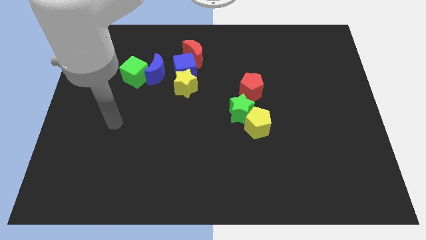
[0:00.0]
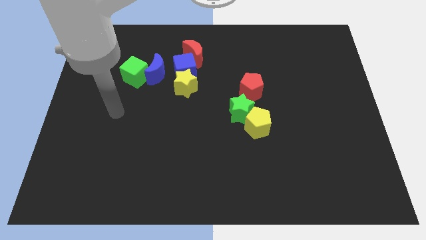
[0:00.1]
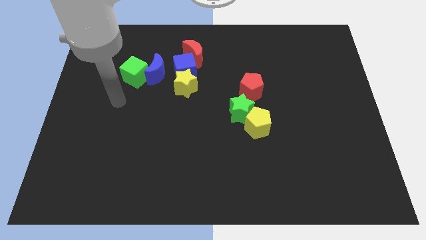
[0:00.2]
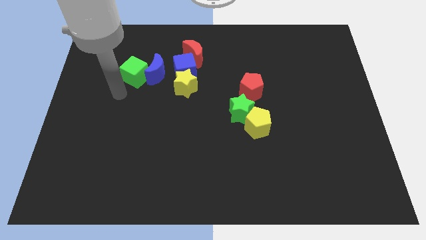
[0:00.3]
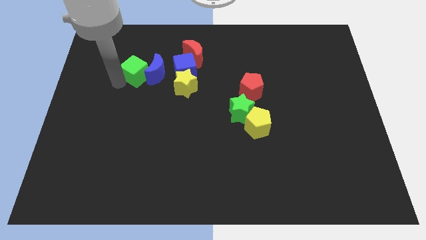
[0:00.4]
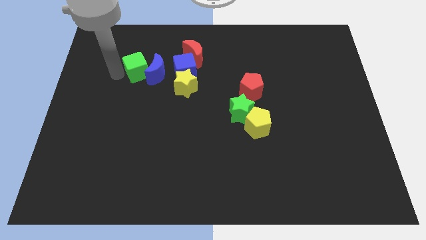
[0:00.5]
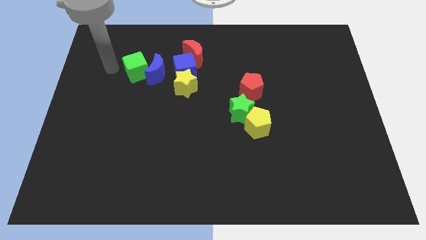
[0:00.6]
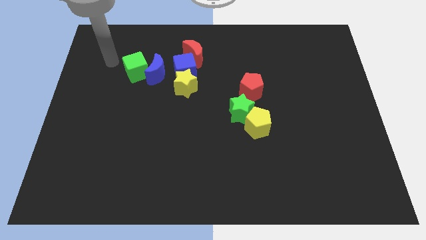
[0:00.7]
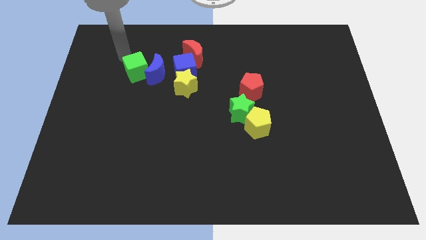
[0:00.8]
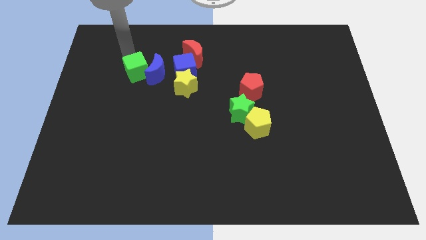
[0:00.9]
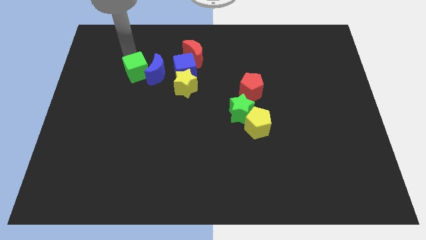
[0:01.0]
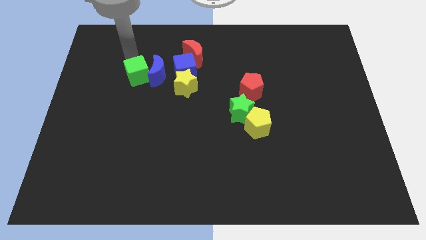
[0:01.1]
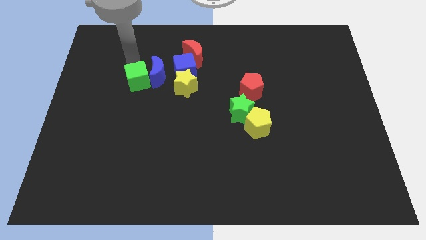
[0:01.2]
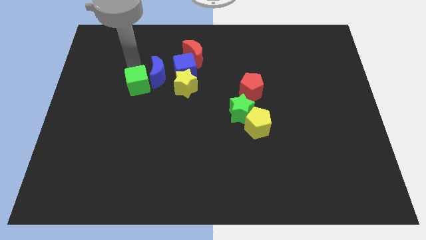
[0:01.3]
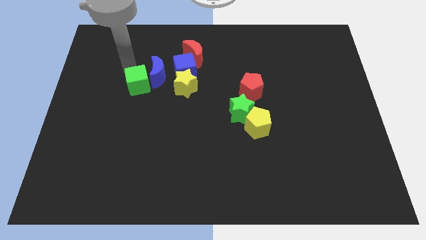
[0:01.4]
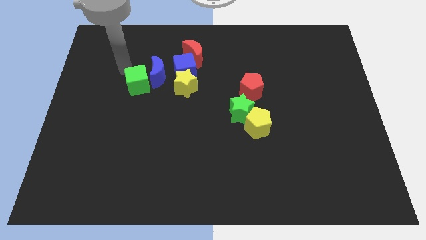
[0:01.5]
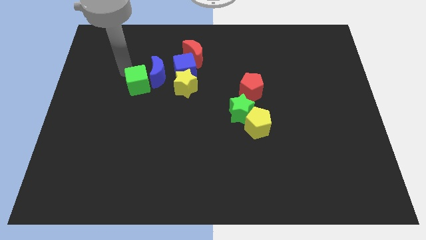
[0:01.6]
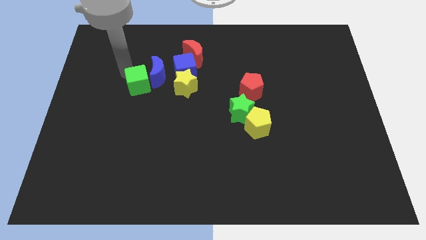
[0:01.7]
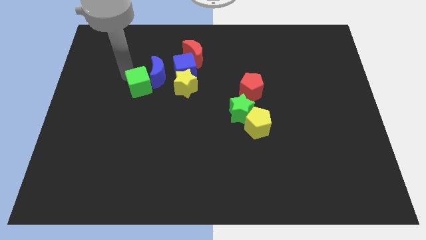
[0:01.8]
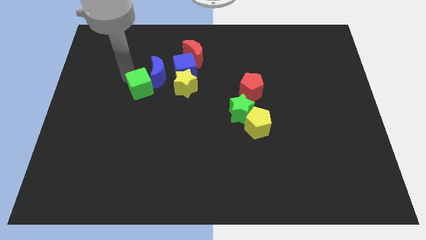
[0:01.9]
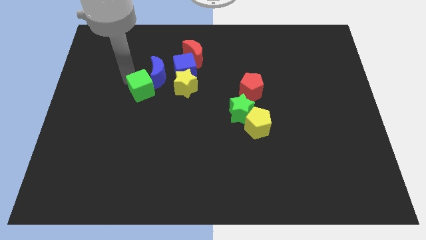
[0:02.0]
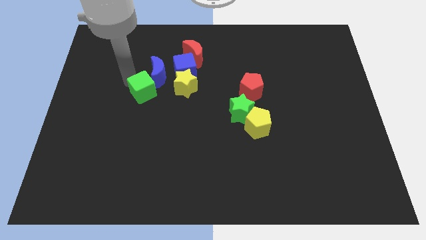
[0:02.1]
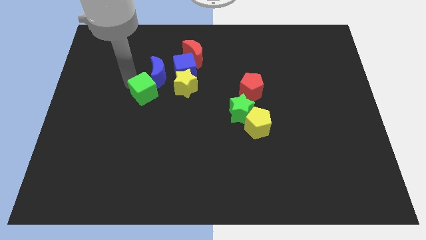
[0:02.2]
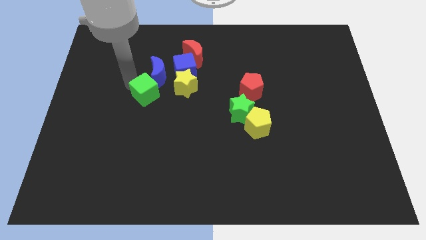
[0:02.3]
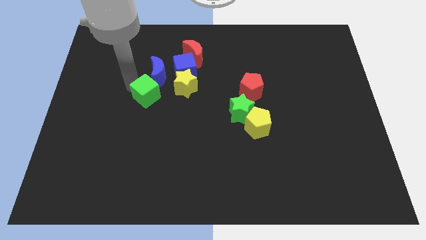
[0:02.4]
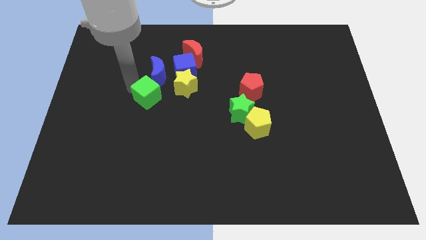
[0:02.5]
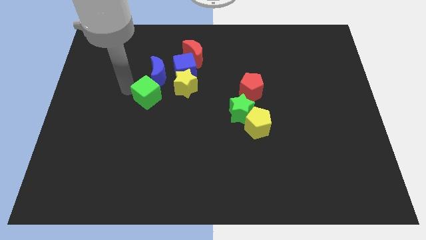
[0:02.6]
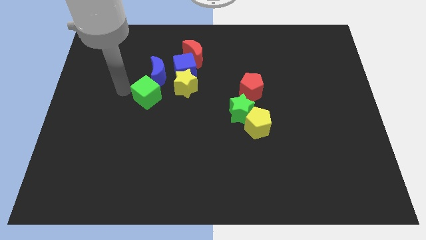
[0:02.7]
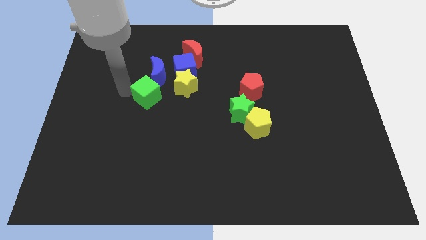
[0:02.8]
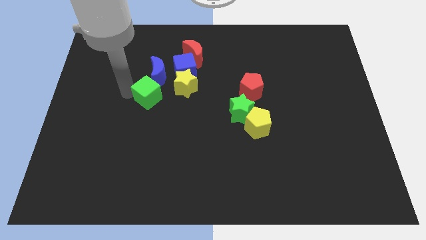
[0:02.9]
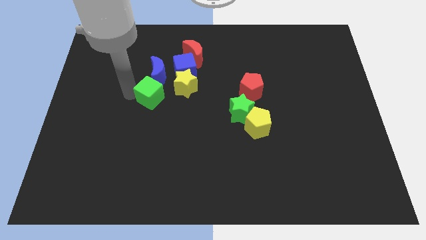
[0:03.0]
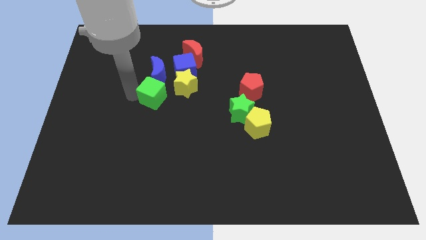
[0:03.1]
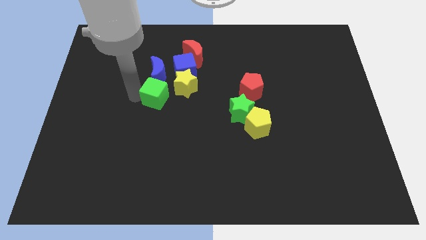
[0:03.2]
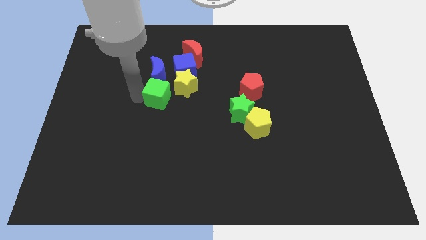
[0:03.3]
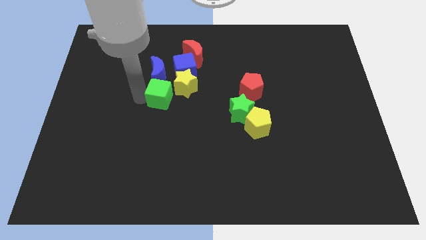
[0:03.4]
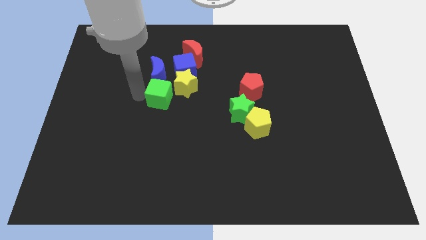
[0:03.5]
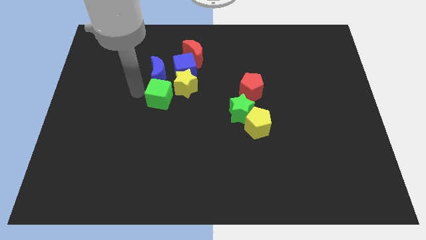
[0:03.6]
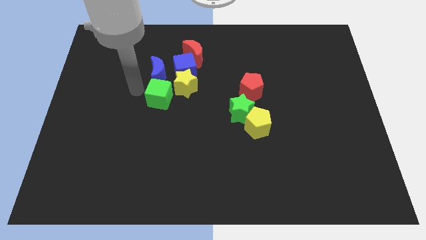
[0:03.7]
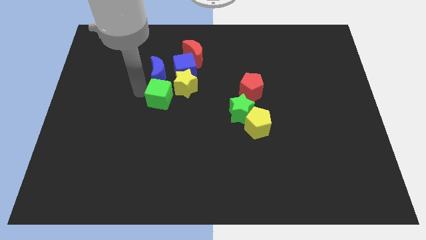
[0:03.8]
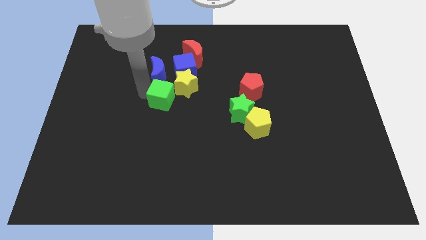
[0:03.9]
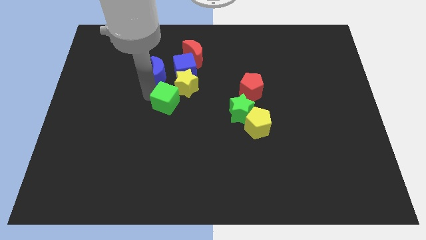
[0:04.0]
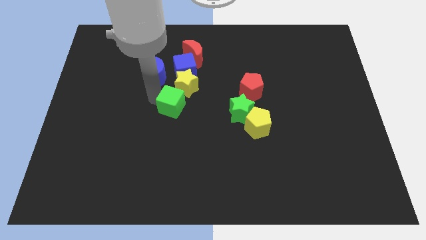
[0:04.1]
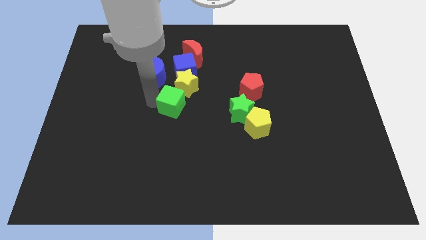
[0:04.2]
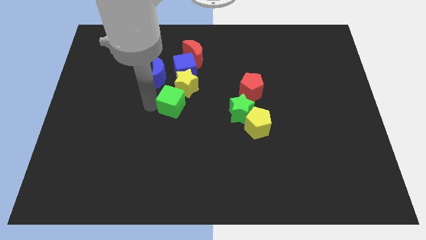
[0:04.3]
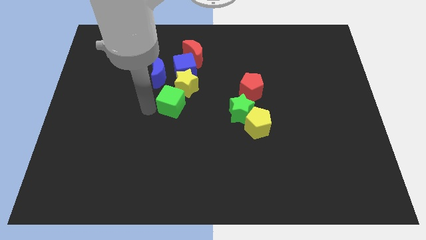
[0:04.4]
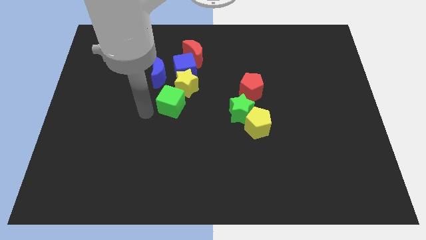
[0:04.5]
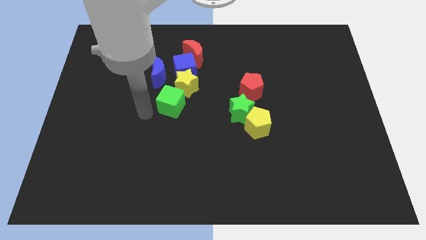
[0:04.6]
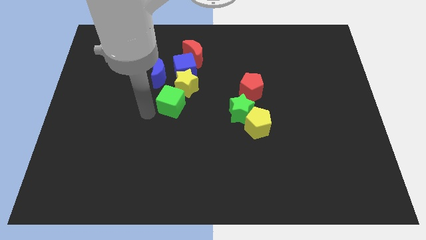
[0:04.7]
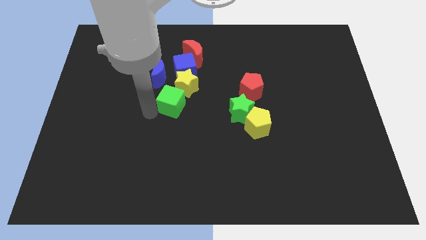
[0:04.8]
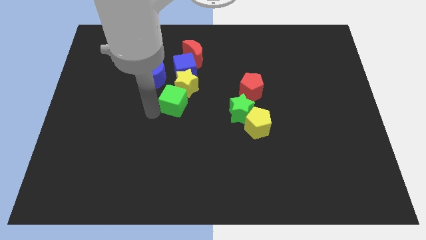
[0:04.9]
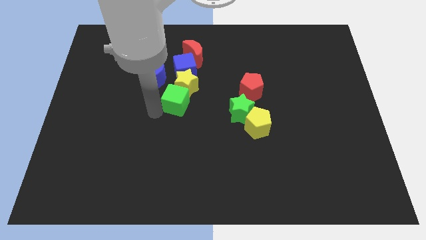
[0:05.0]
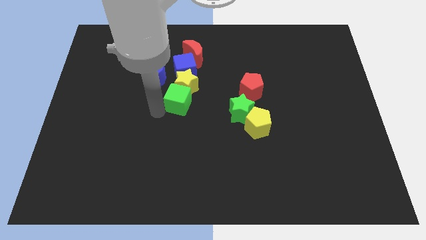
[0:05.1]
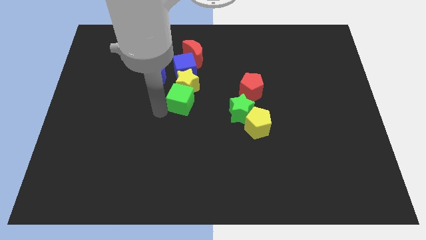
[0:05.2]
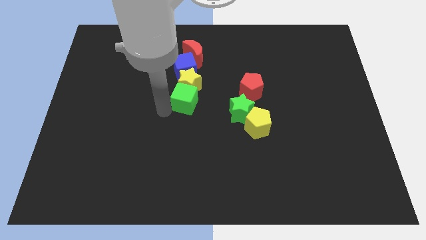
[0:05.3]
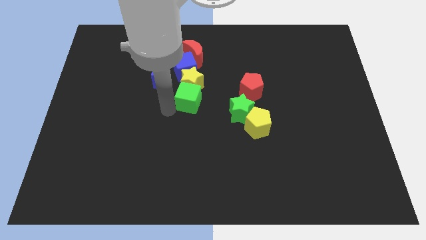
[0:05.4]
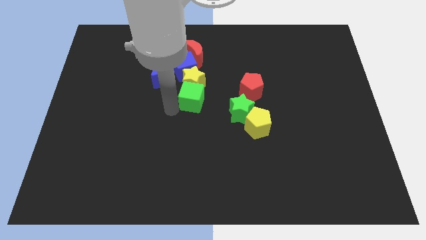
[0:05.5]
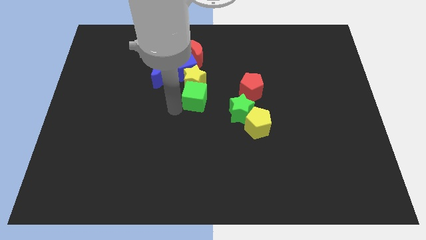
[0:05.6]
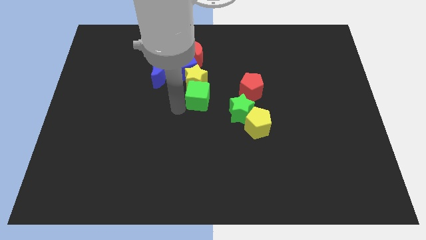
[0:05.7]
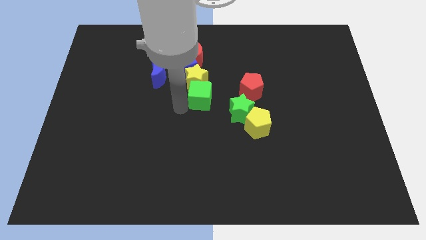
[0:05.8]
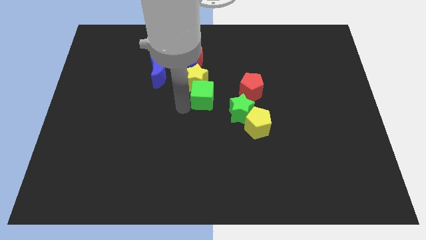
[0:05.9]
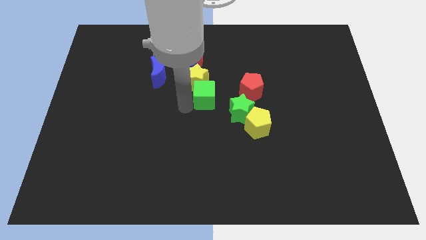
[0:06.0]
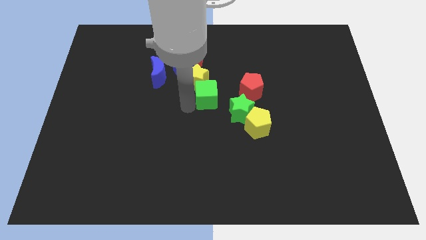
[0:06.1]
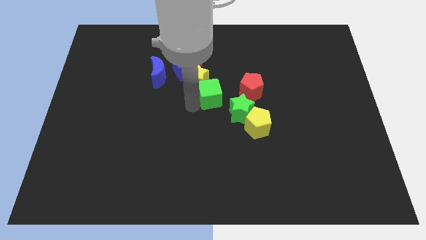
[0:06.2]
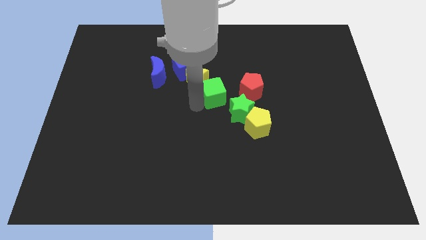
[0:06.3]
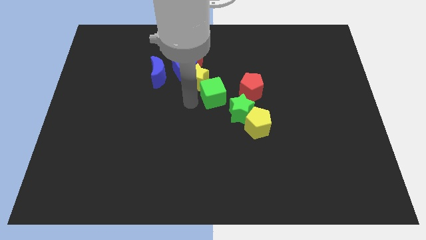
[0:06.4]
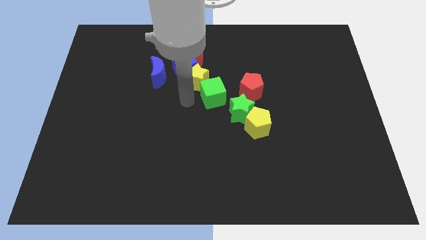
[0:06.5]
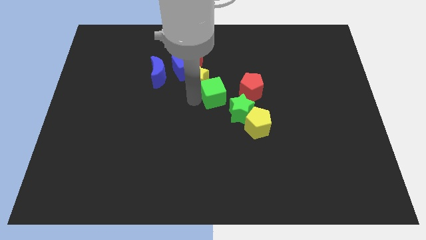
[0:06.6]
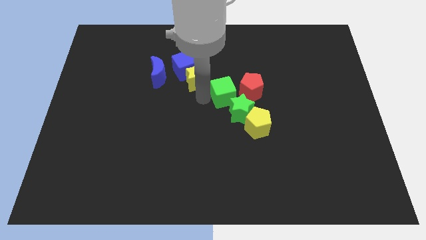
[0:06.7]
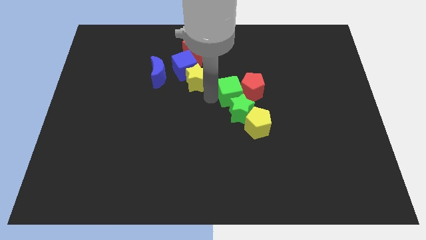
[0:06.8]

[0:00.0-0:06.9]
push the green cube towards the red pentagon

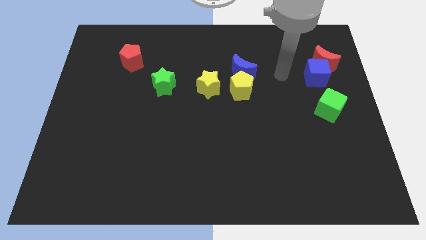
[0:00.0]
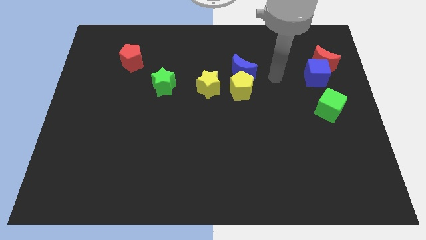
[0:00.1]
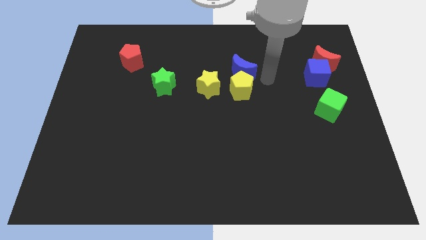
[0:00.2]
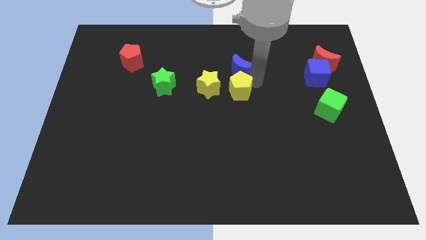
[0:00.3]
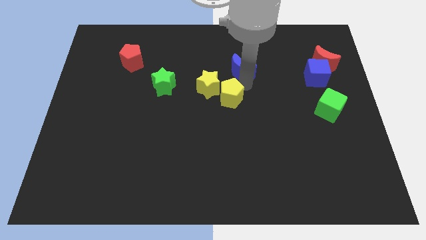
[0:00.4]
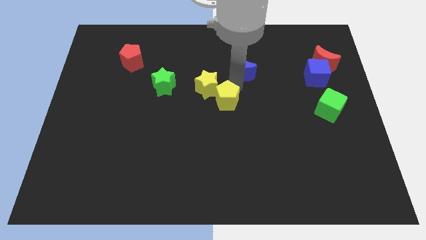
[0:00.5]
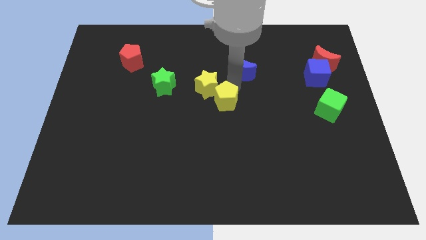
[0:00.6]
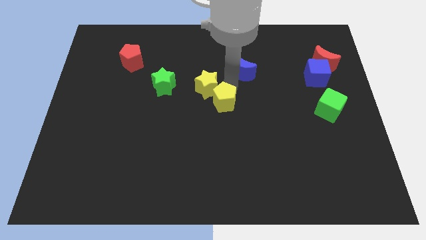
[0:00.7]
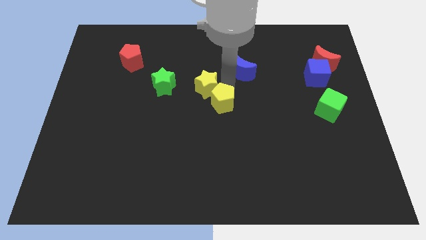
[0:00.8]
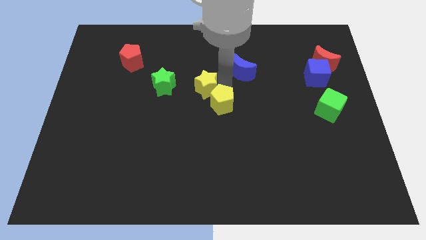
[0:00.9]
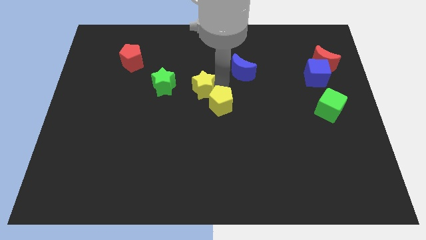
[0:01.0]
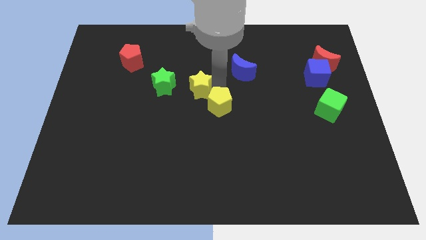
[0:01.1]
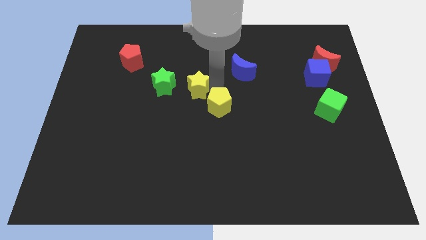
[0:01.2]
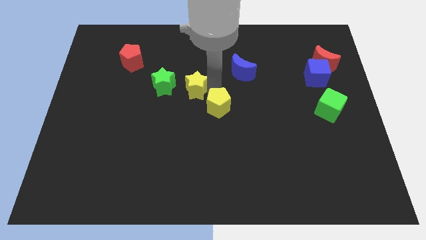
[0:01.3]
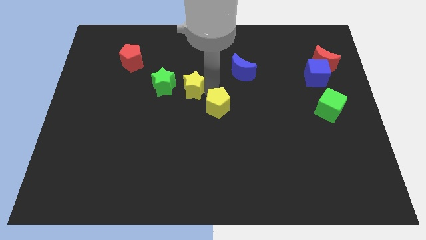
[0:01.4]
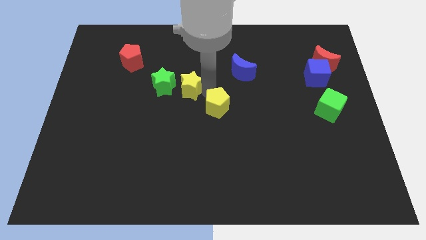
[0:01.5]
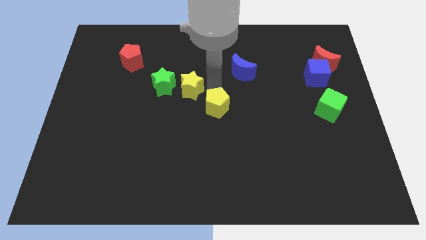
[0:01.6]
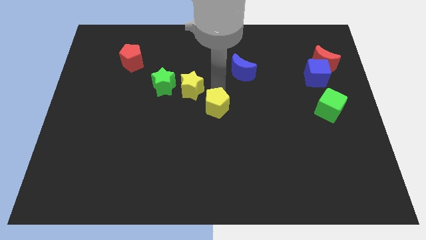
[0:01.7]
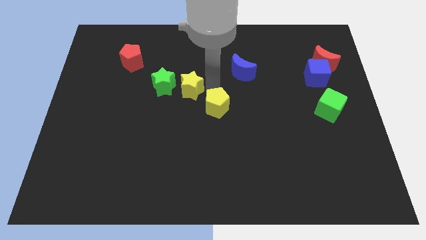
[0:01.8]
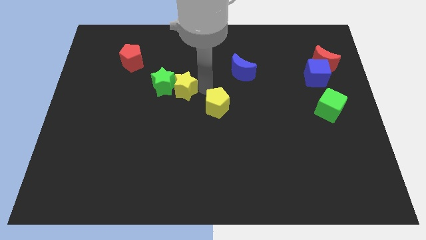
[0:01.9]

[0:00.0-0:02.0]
slide the yellow star next to the green star
